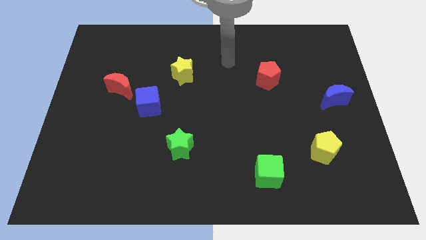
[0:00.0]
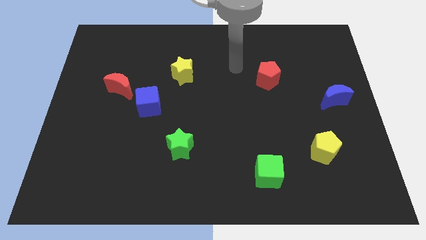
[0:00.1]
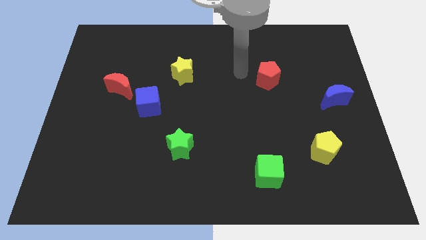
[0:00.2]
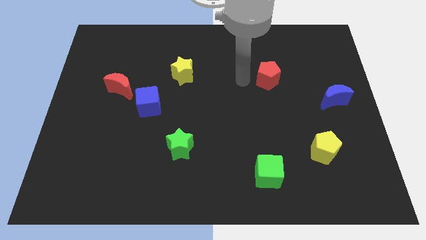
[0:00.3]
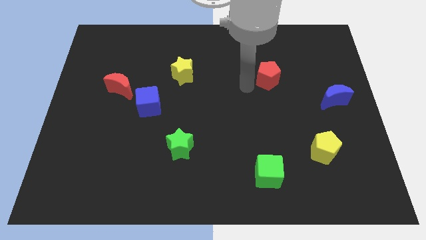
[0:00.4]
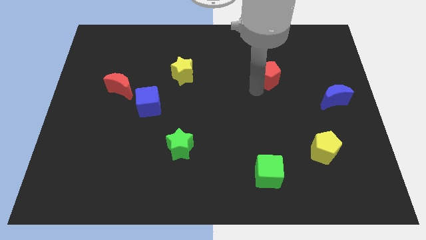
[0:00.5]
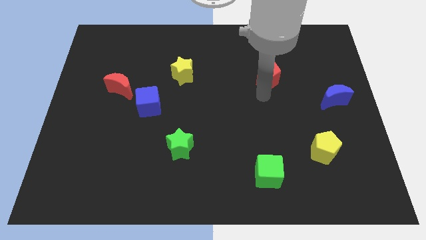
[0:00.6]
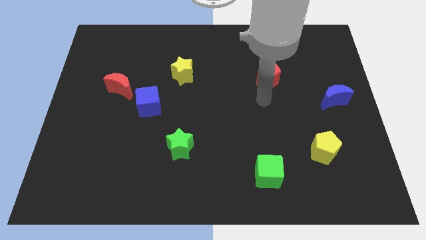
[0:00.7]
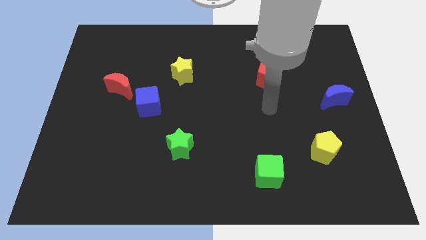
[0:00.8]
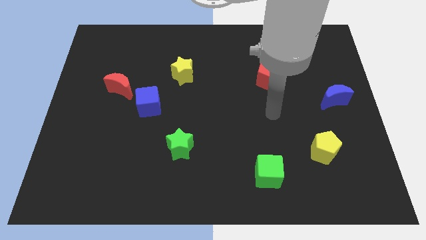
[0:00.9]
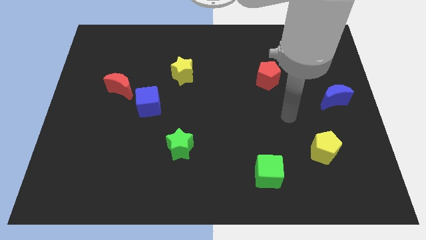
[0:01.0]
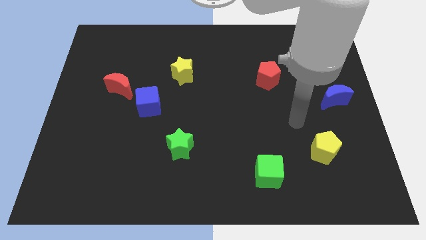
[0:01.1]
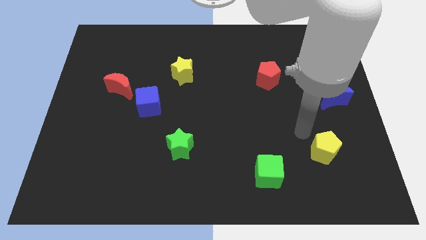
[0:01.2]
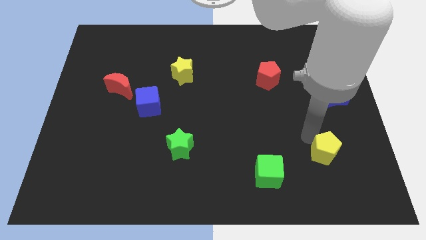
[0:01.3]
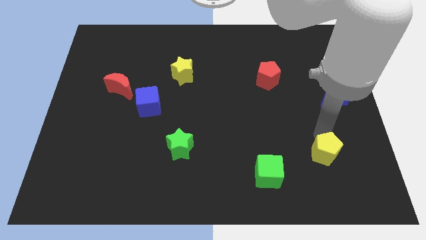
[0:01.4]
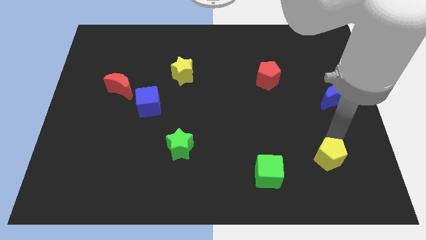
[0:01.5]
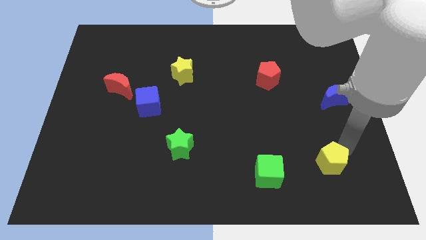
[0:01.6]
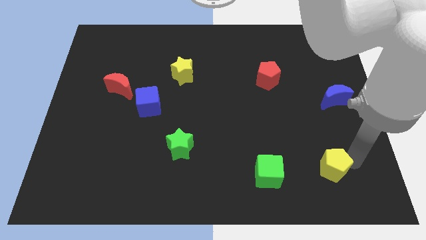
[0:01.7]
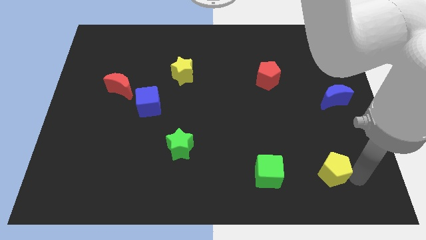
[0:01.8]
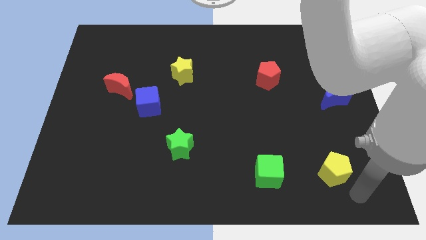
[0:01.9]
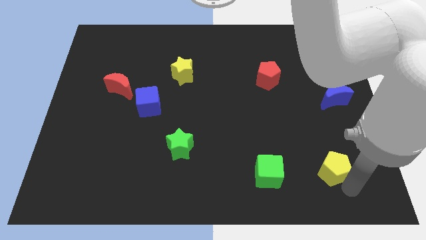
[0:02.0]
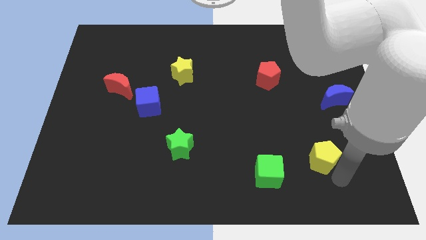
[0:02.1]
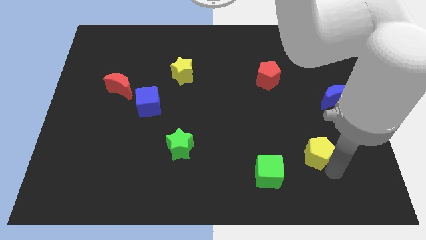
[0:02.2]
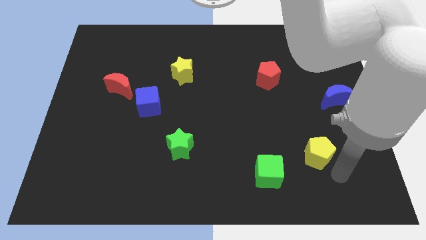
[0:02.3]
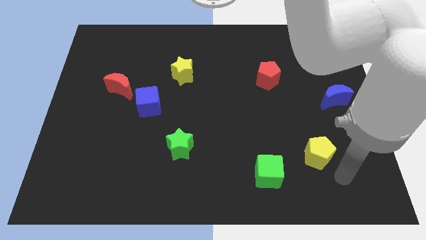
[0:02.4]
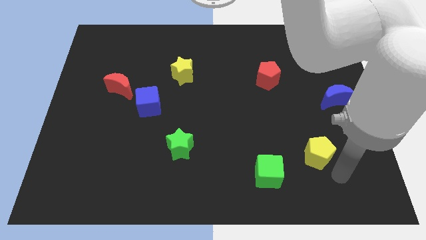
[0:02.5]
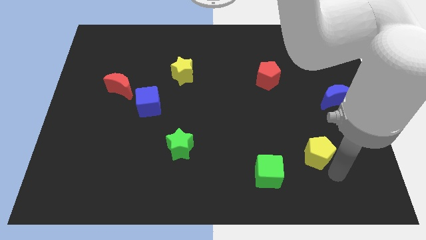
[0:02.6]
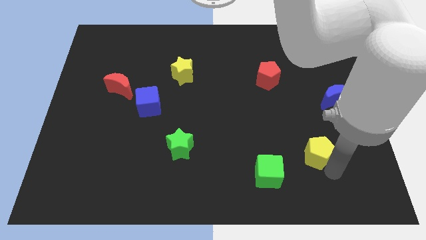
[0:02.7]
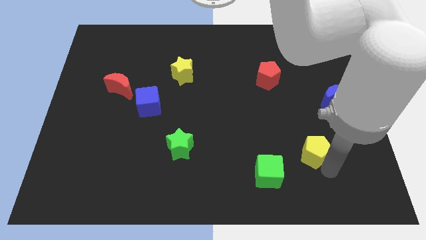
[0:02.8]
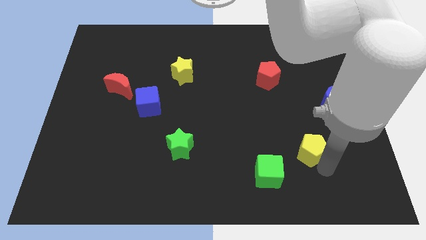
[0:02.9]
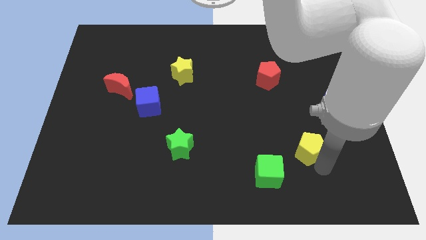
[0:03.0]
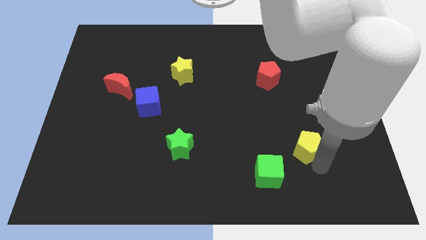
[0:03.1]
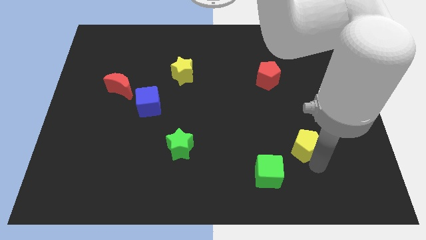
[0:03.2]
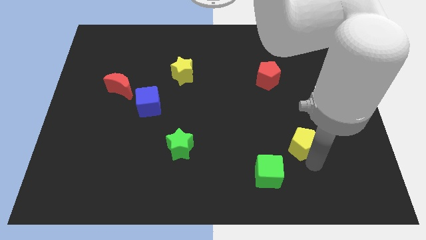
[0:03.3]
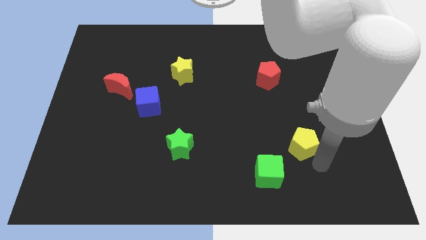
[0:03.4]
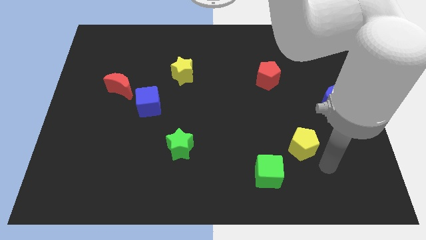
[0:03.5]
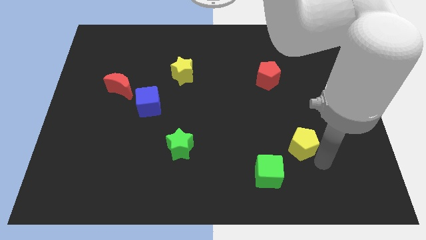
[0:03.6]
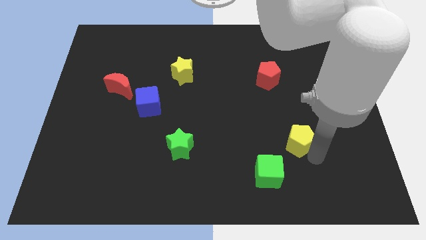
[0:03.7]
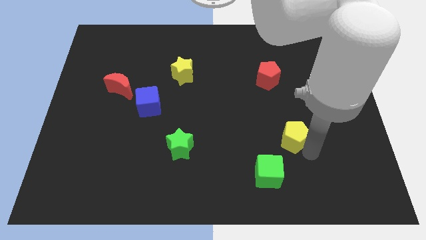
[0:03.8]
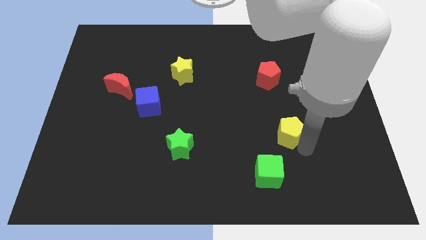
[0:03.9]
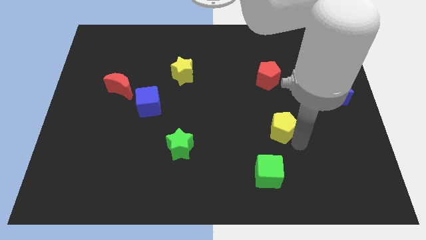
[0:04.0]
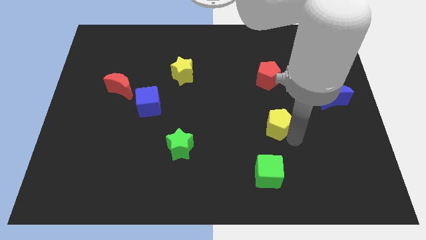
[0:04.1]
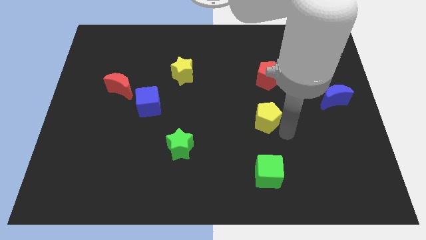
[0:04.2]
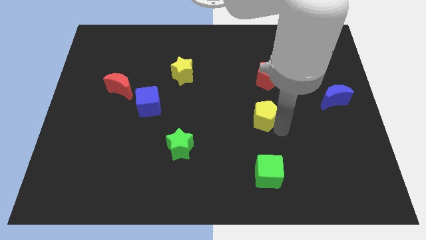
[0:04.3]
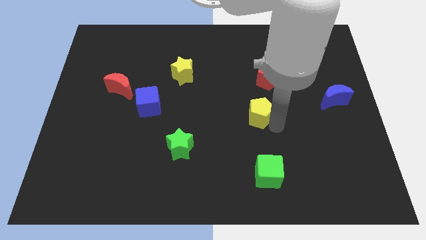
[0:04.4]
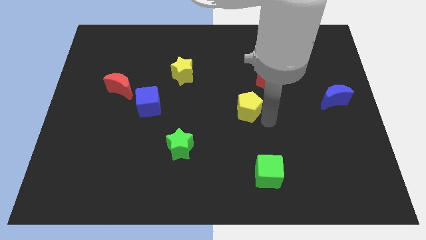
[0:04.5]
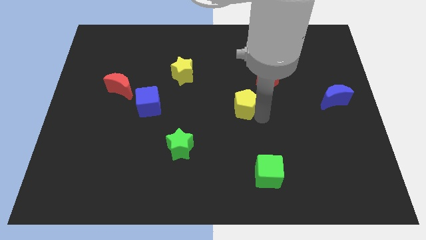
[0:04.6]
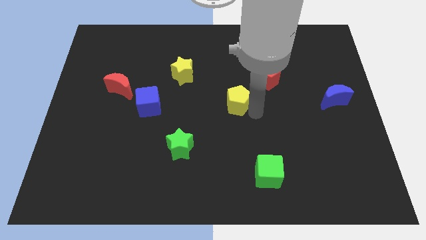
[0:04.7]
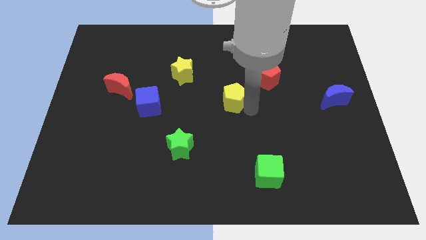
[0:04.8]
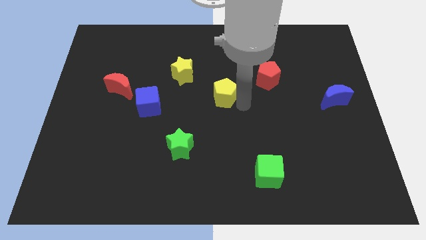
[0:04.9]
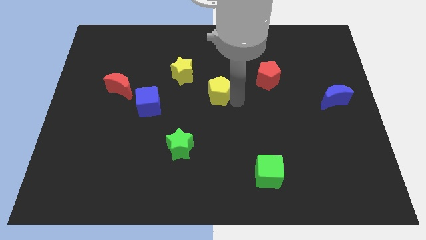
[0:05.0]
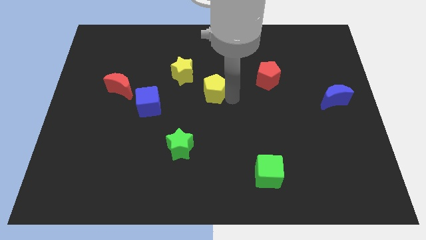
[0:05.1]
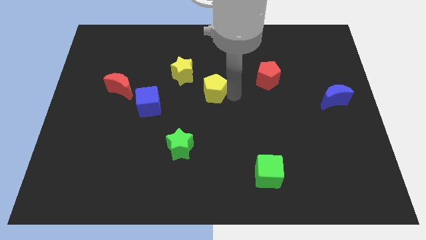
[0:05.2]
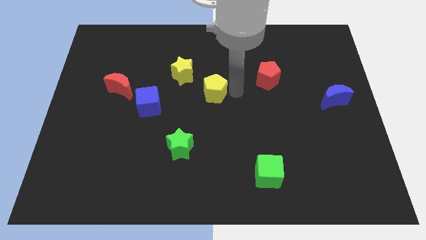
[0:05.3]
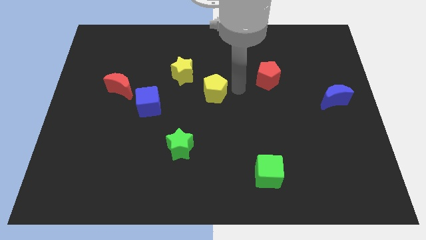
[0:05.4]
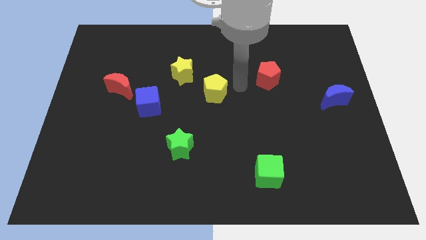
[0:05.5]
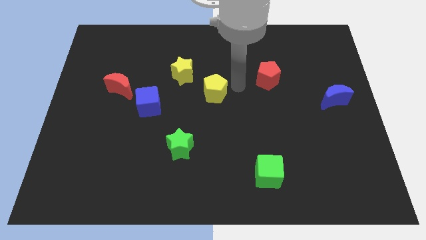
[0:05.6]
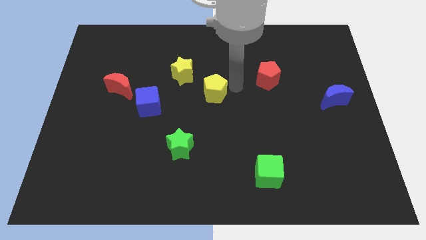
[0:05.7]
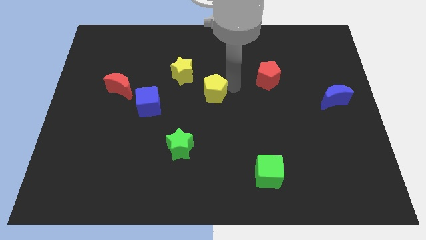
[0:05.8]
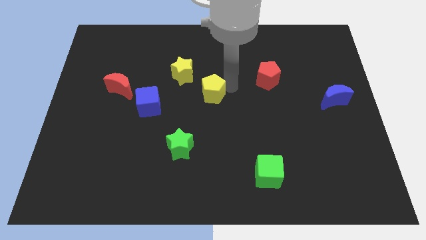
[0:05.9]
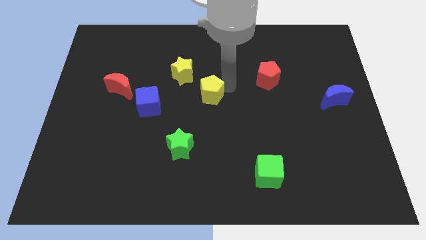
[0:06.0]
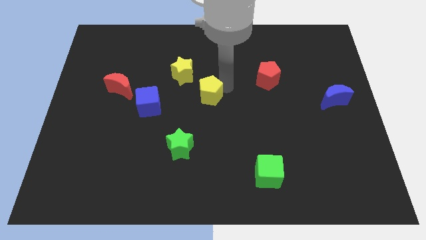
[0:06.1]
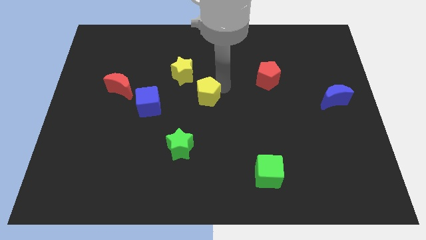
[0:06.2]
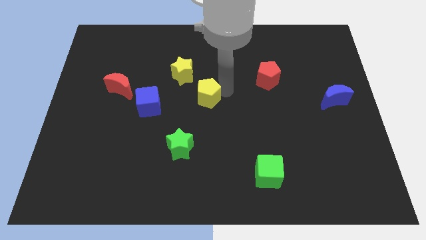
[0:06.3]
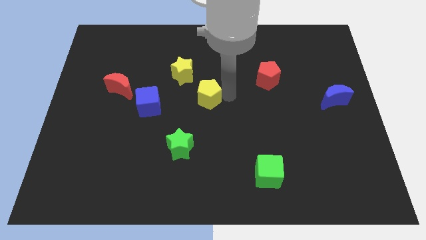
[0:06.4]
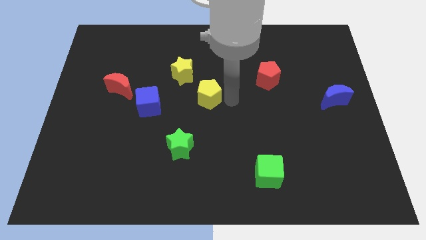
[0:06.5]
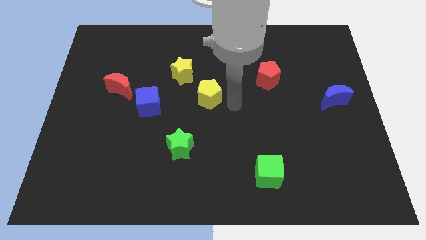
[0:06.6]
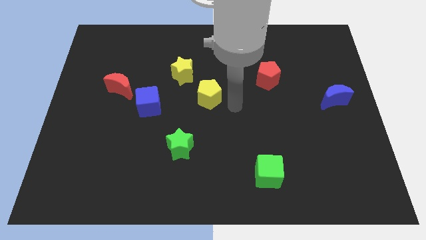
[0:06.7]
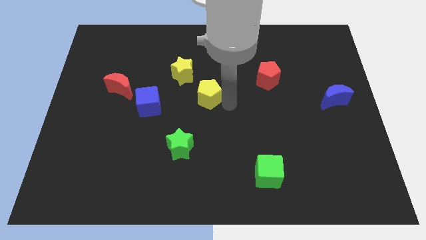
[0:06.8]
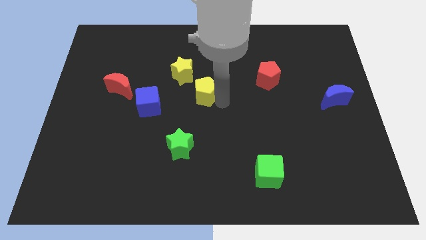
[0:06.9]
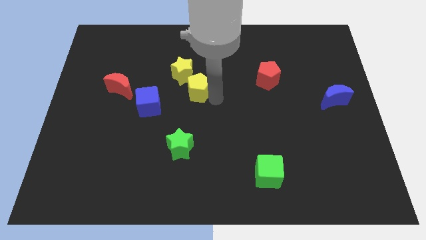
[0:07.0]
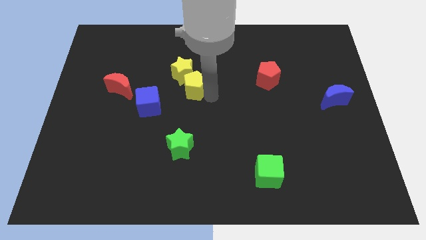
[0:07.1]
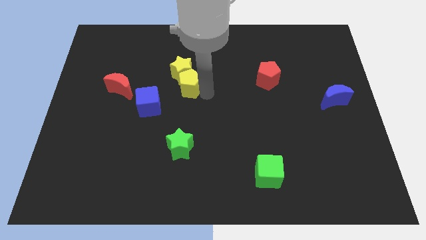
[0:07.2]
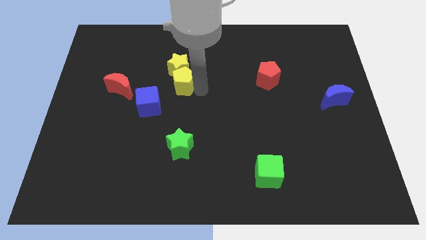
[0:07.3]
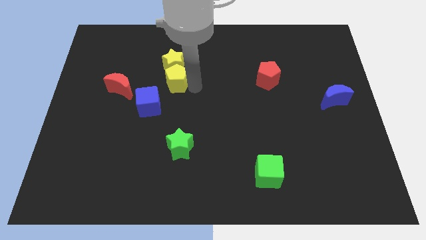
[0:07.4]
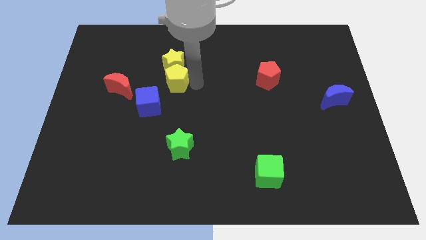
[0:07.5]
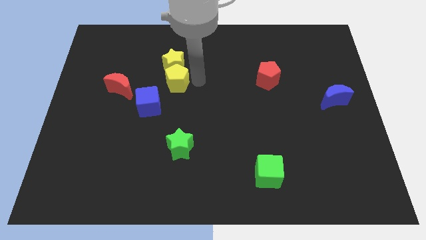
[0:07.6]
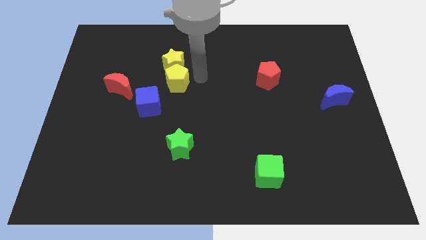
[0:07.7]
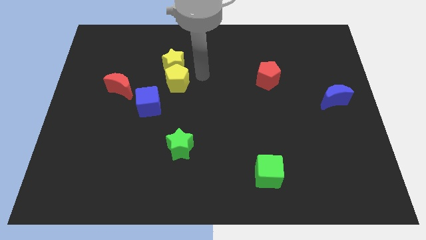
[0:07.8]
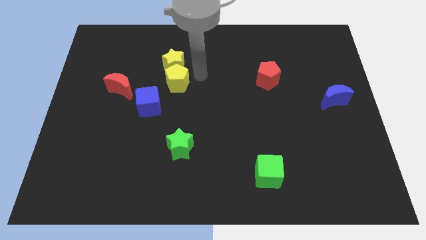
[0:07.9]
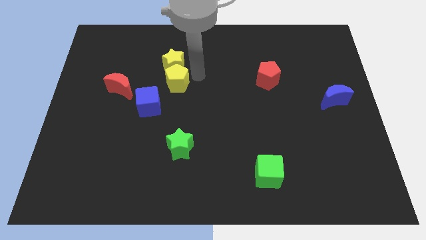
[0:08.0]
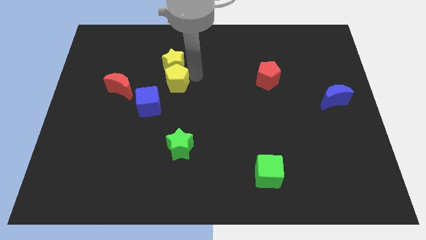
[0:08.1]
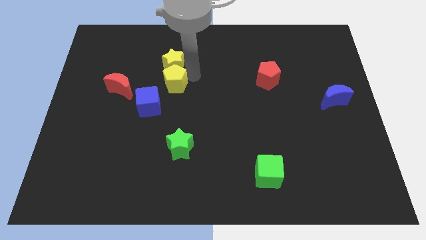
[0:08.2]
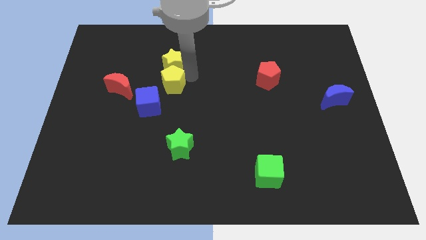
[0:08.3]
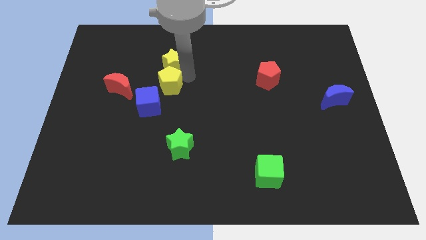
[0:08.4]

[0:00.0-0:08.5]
push the yellow pentagon to the top of the blue cube
